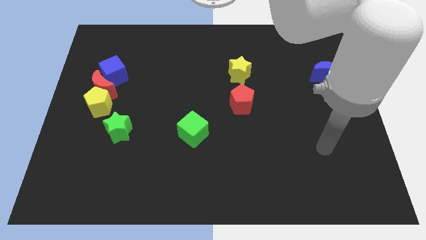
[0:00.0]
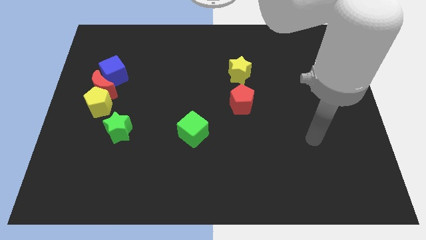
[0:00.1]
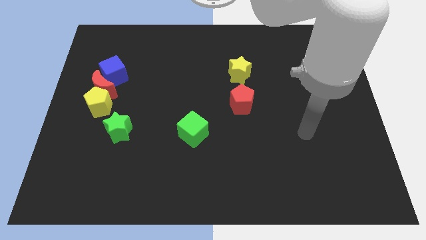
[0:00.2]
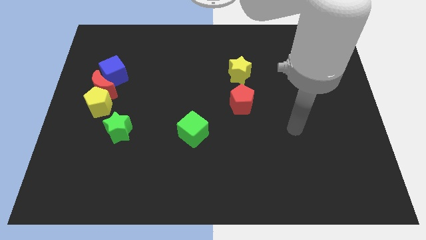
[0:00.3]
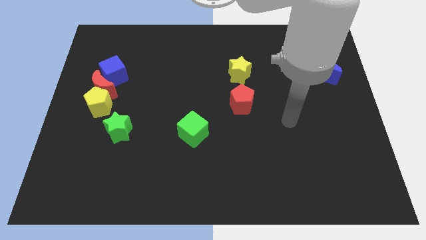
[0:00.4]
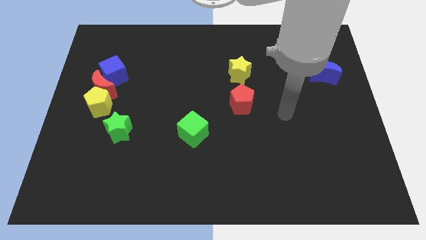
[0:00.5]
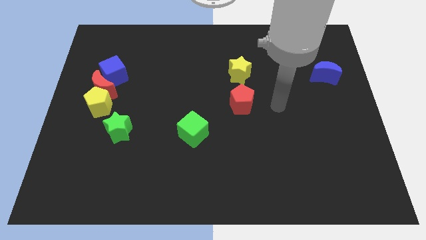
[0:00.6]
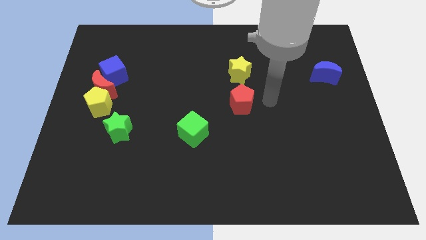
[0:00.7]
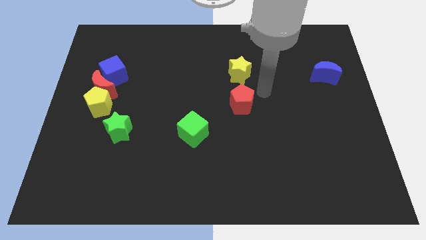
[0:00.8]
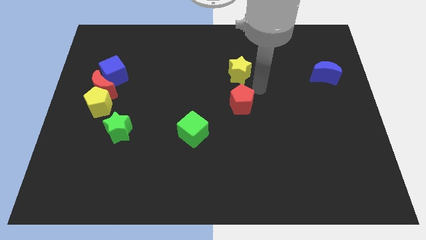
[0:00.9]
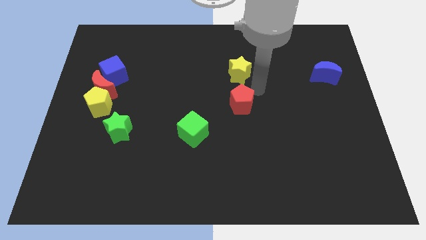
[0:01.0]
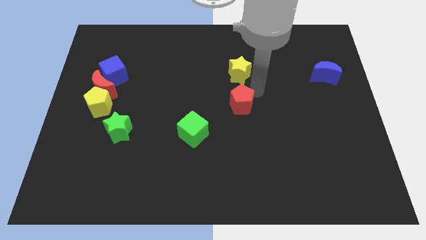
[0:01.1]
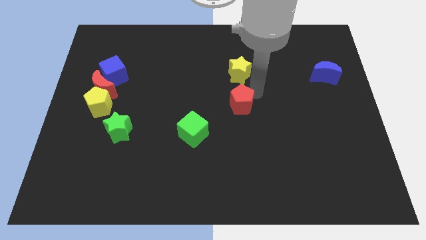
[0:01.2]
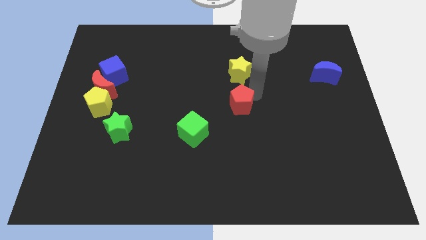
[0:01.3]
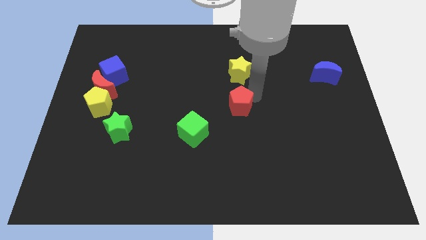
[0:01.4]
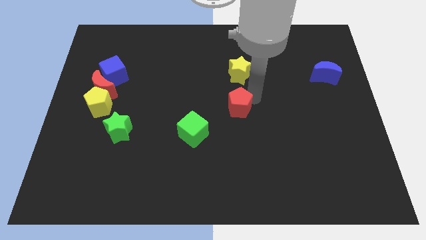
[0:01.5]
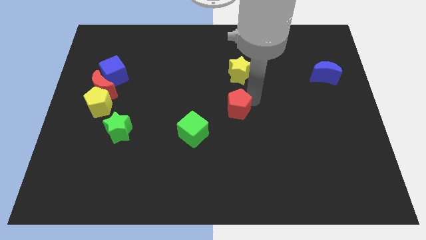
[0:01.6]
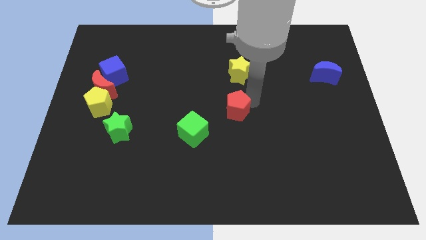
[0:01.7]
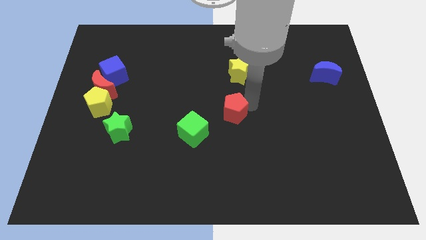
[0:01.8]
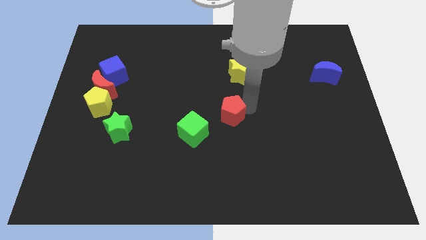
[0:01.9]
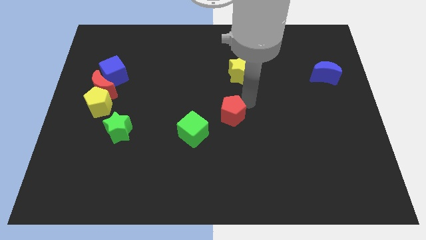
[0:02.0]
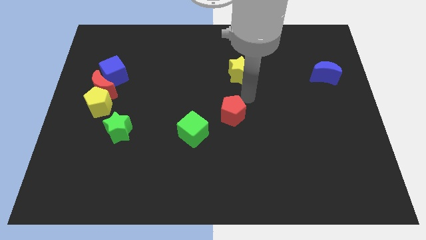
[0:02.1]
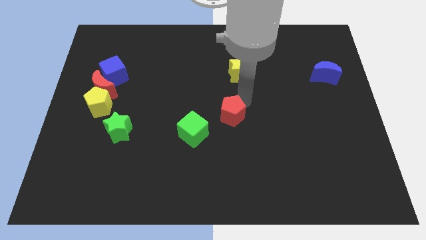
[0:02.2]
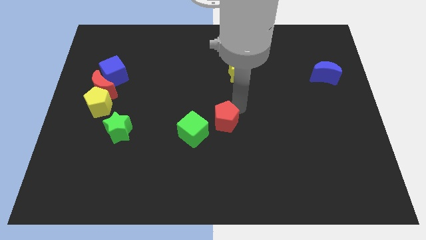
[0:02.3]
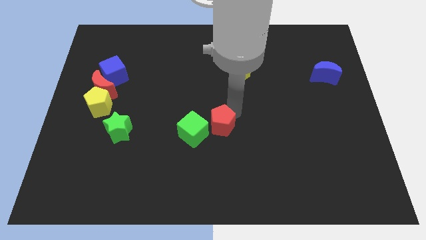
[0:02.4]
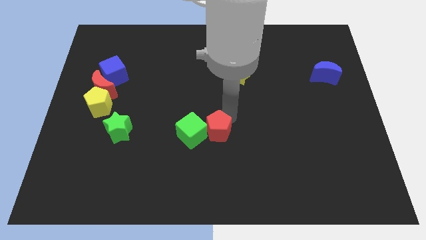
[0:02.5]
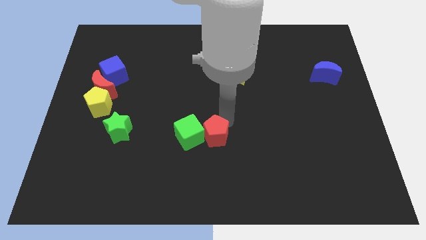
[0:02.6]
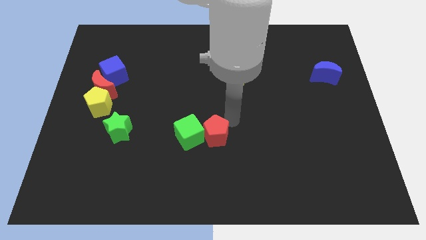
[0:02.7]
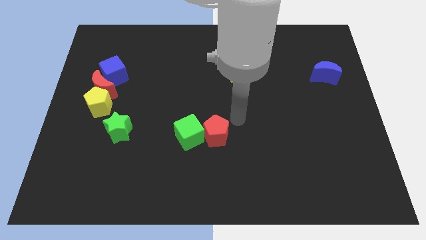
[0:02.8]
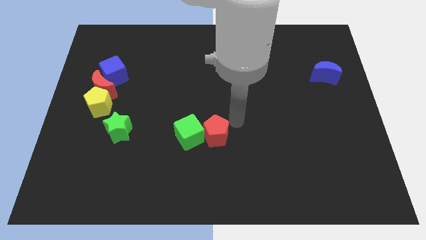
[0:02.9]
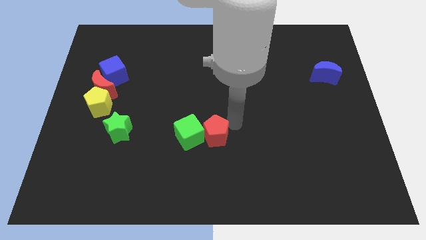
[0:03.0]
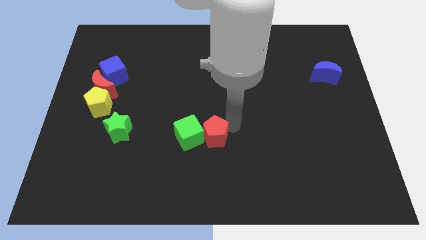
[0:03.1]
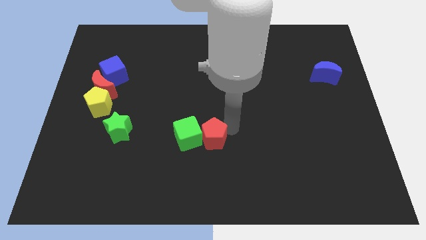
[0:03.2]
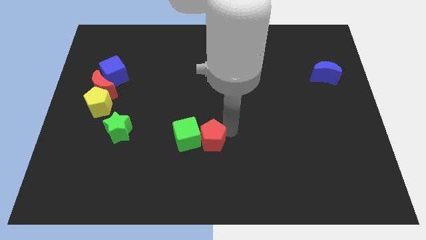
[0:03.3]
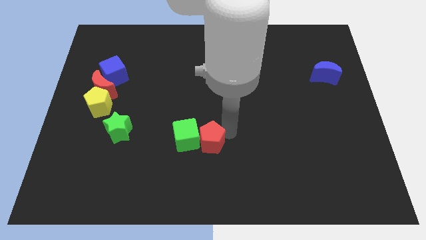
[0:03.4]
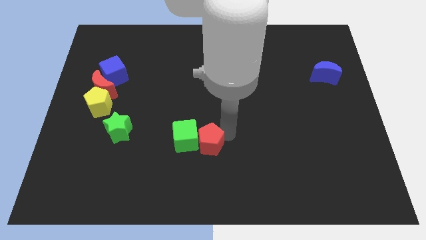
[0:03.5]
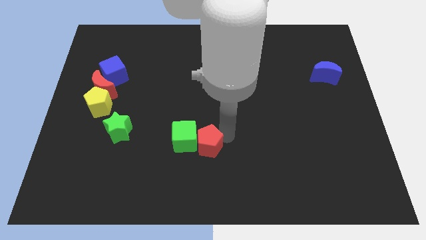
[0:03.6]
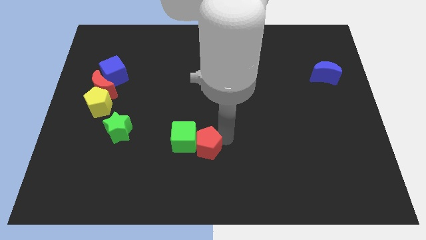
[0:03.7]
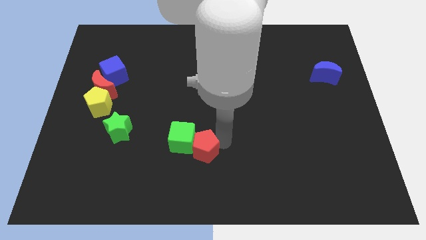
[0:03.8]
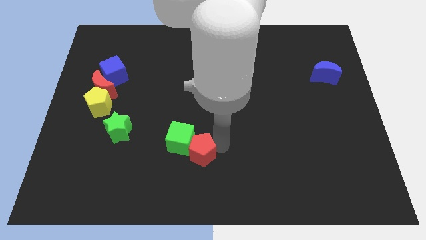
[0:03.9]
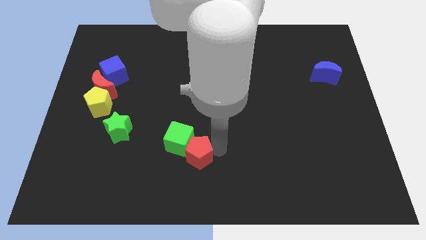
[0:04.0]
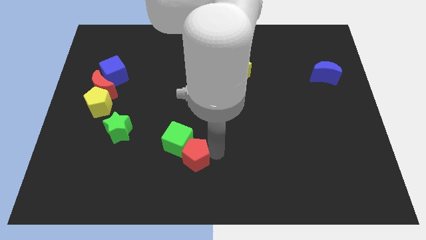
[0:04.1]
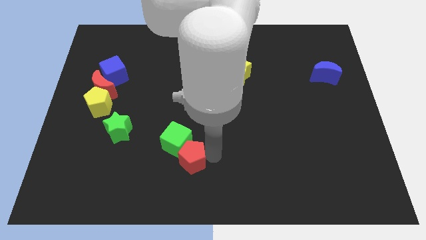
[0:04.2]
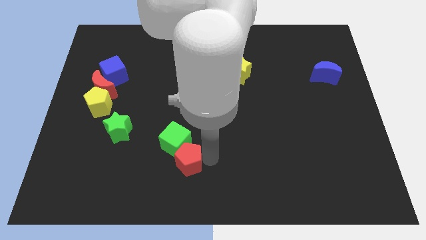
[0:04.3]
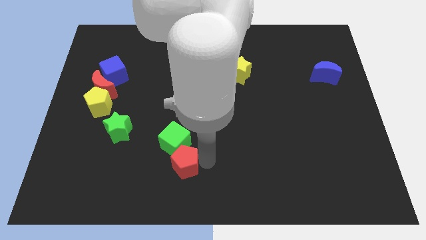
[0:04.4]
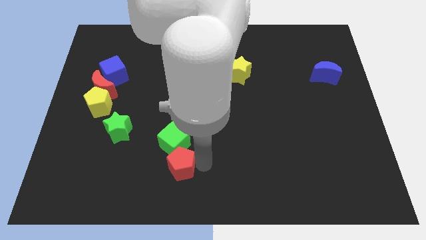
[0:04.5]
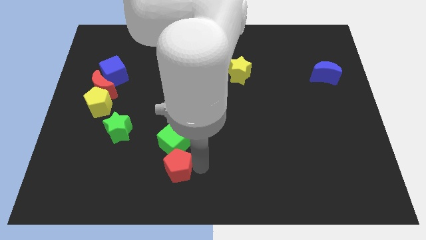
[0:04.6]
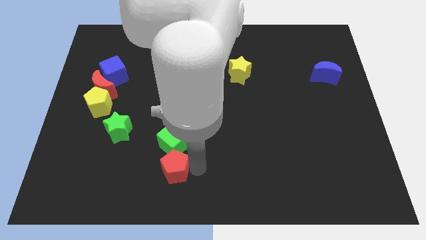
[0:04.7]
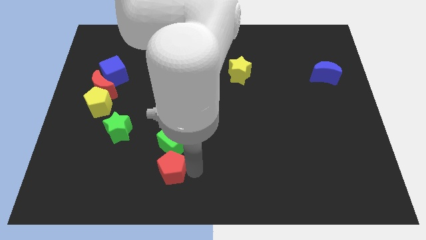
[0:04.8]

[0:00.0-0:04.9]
slide the red pentagon to the bottom left of the green cube

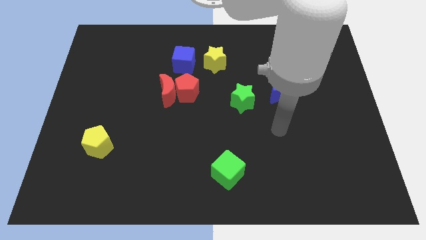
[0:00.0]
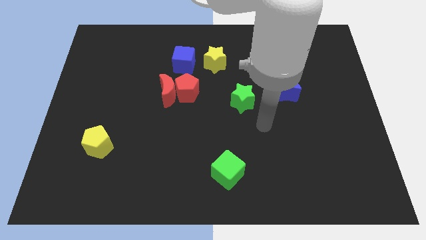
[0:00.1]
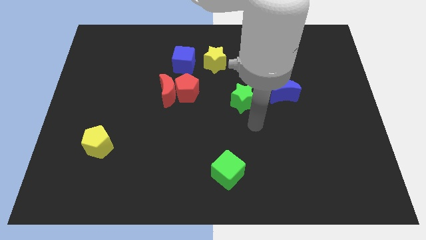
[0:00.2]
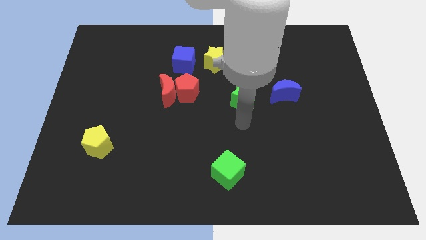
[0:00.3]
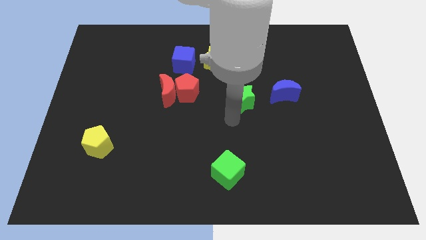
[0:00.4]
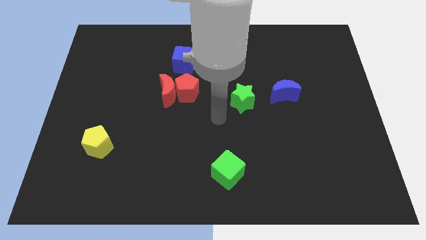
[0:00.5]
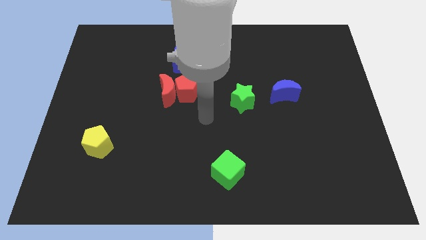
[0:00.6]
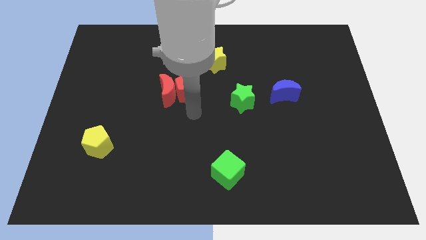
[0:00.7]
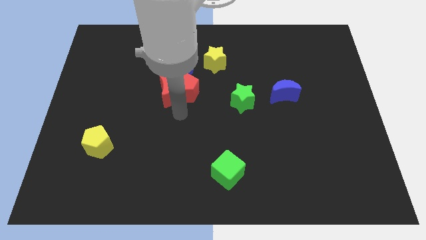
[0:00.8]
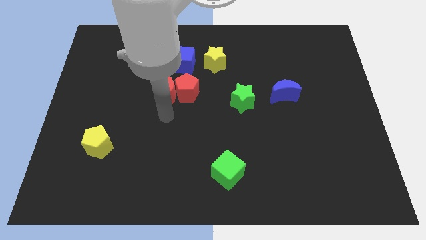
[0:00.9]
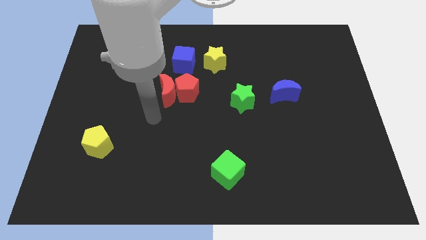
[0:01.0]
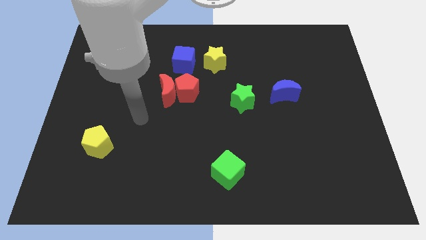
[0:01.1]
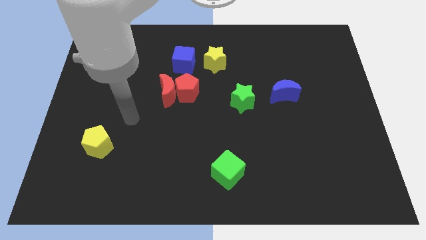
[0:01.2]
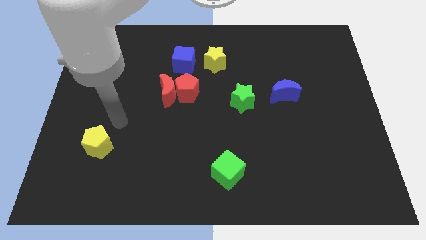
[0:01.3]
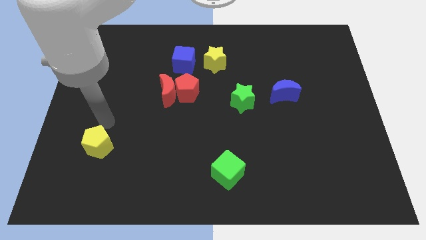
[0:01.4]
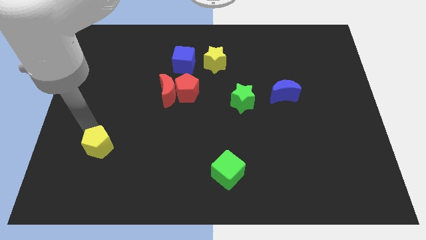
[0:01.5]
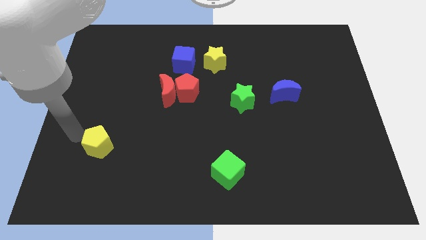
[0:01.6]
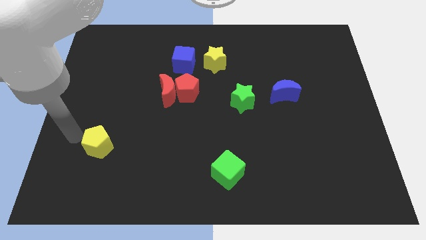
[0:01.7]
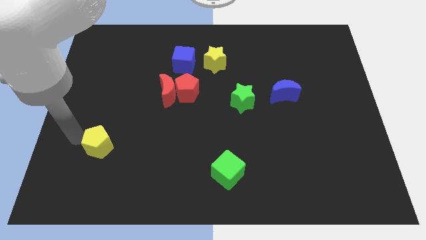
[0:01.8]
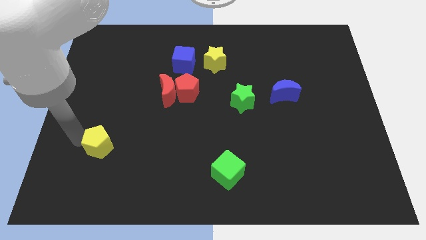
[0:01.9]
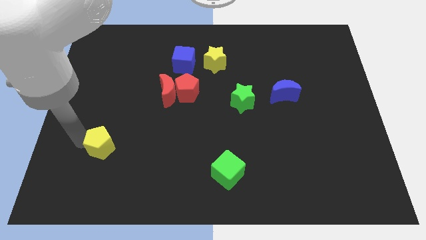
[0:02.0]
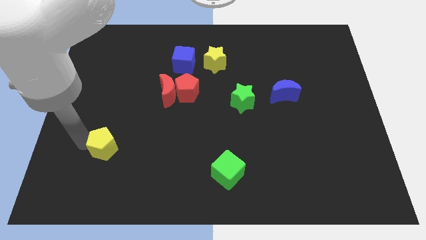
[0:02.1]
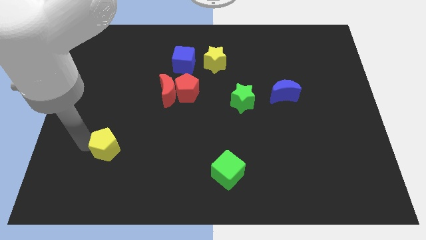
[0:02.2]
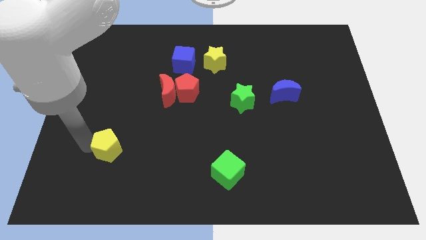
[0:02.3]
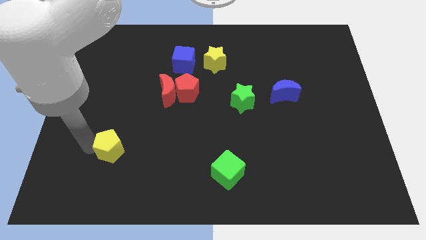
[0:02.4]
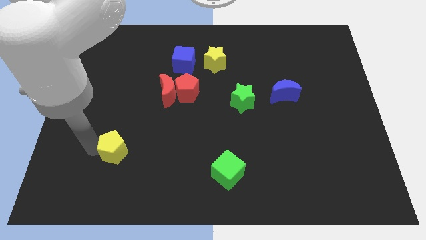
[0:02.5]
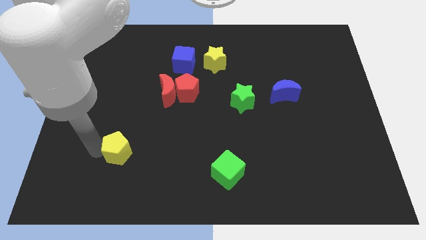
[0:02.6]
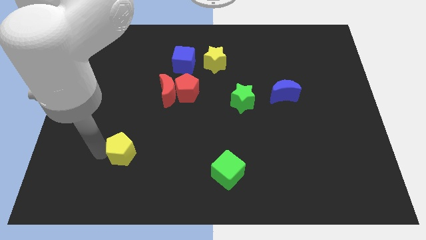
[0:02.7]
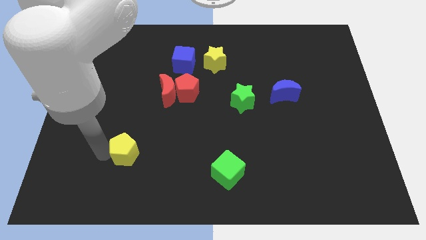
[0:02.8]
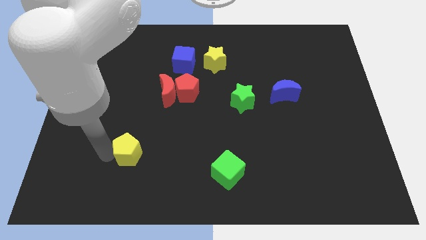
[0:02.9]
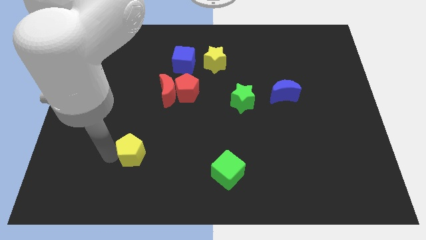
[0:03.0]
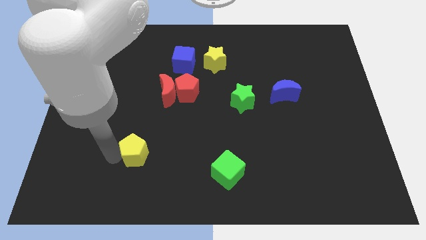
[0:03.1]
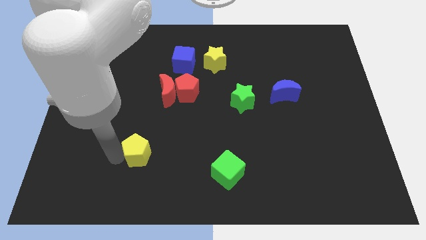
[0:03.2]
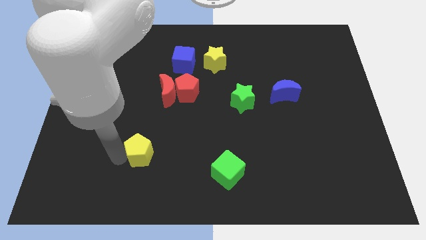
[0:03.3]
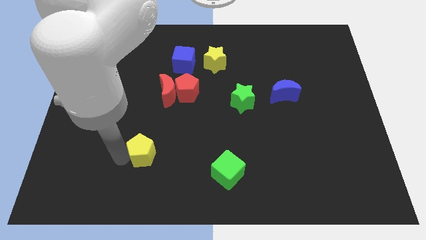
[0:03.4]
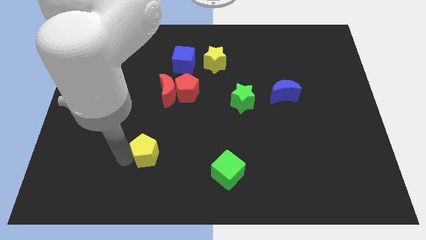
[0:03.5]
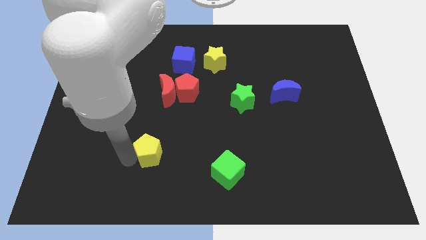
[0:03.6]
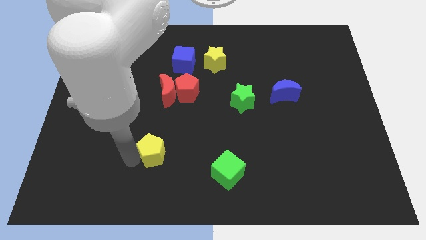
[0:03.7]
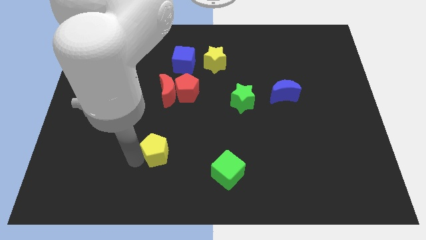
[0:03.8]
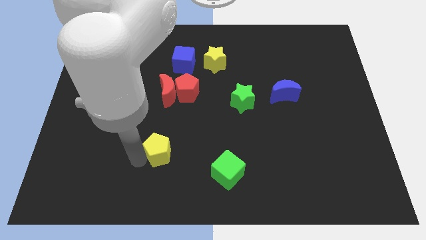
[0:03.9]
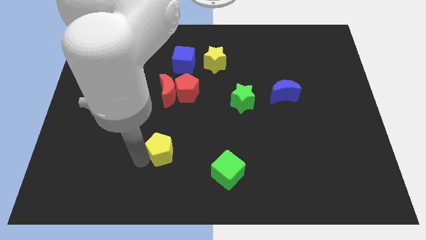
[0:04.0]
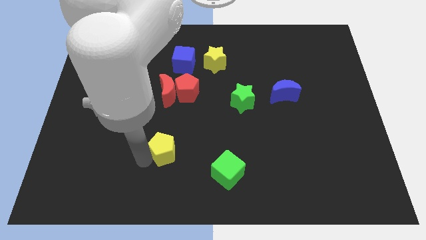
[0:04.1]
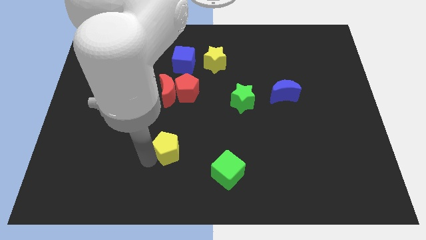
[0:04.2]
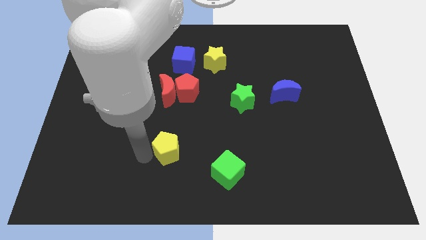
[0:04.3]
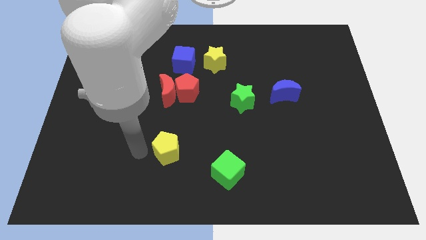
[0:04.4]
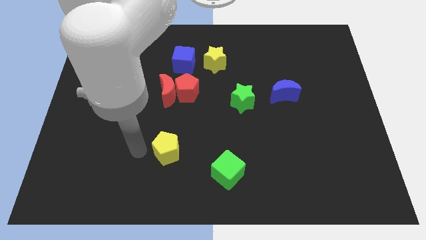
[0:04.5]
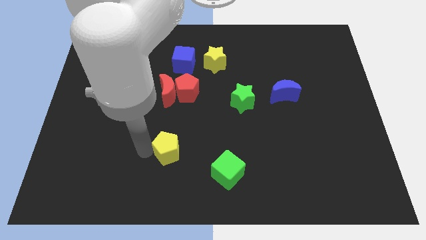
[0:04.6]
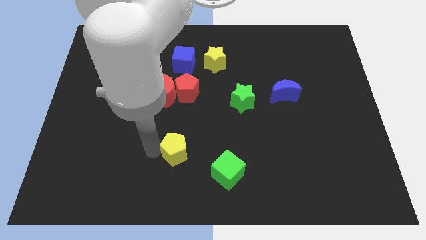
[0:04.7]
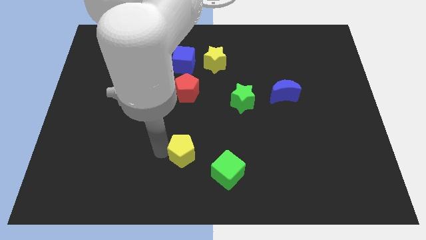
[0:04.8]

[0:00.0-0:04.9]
move the yellow pentagon to the top left of the green cube
